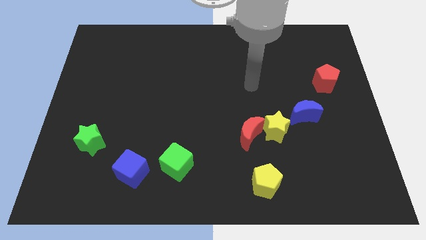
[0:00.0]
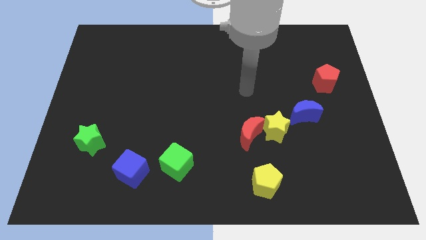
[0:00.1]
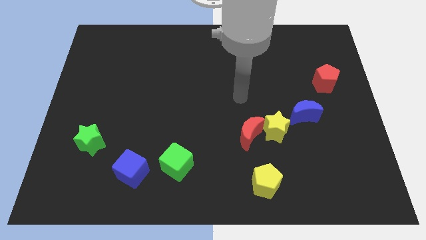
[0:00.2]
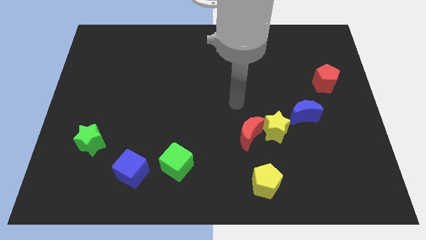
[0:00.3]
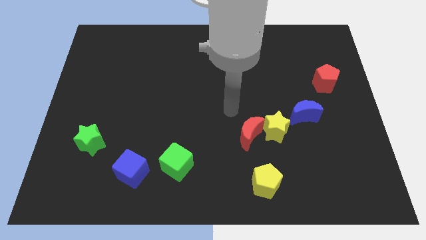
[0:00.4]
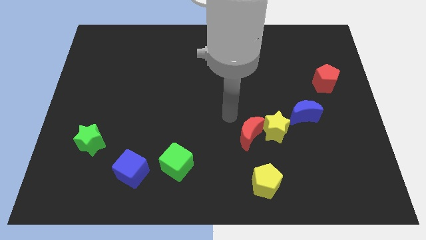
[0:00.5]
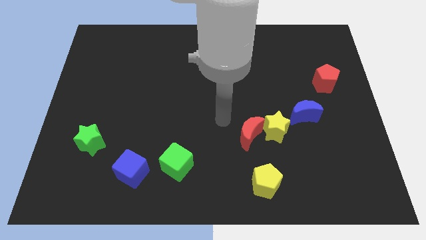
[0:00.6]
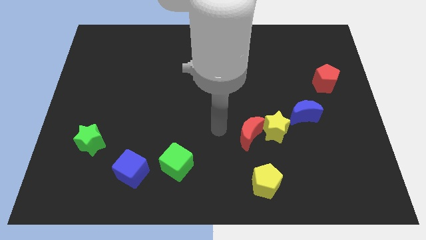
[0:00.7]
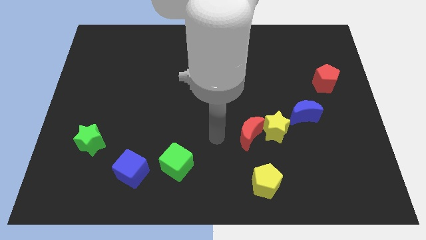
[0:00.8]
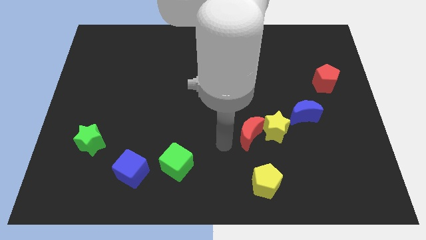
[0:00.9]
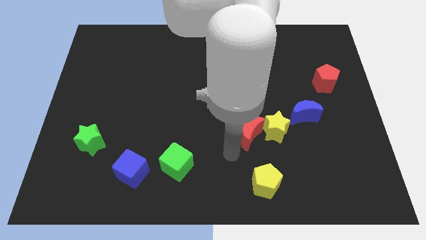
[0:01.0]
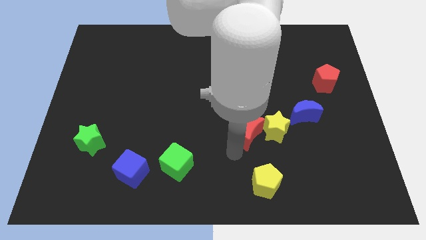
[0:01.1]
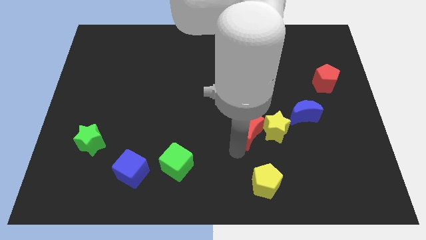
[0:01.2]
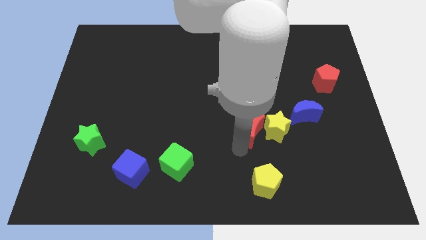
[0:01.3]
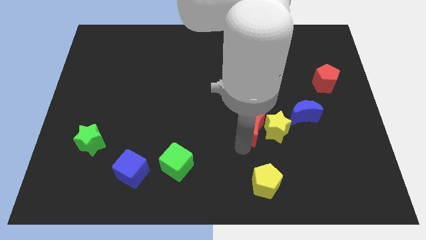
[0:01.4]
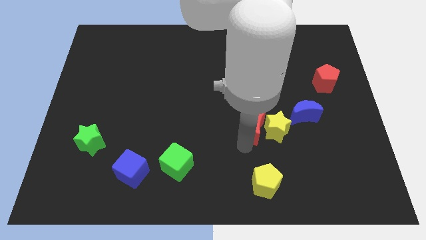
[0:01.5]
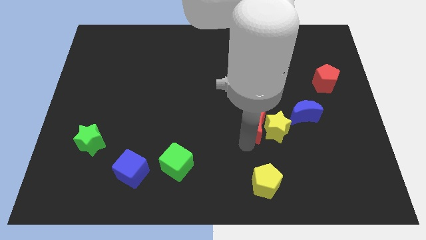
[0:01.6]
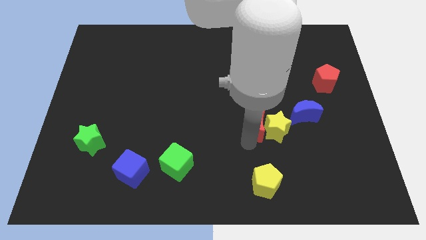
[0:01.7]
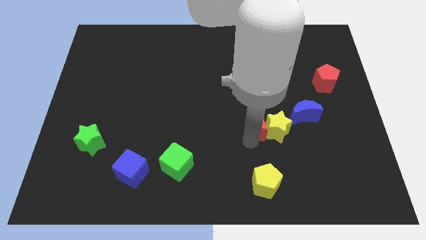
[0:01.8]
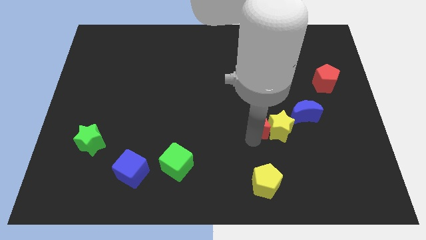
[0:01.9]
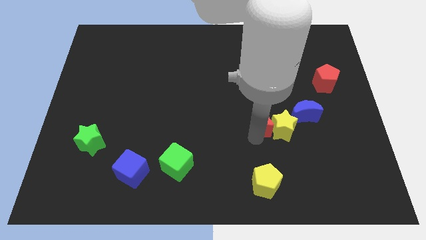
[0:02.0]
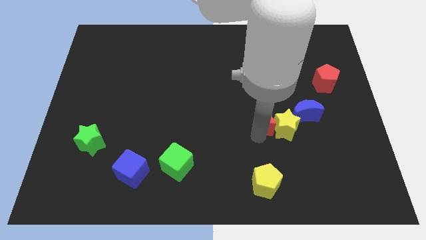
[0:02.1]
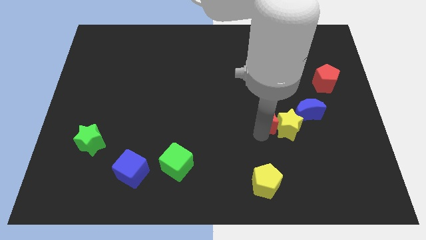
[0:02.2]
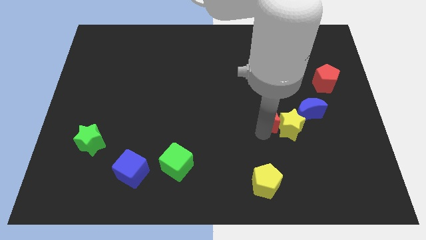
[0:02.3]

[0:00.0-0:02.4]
slightly slide the red moon upwards and right

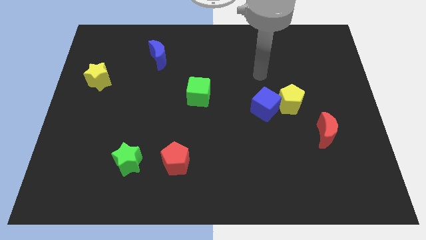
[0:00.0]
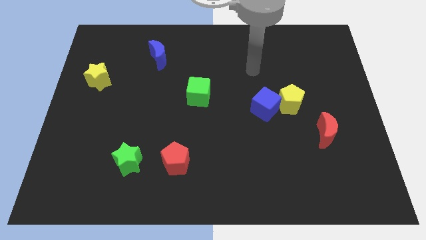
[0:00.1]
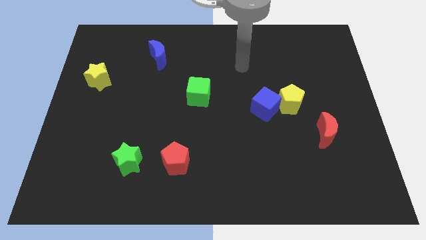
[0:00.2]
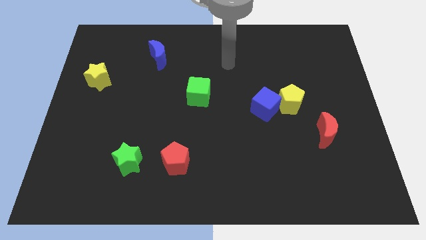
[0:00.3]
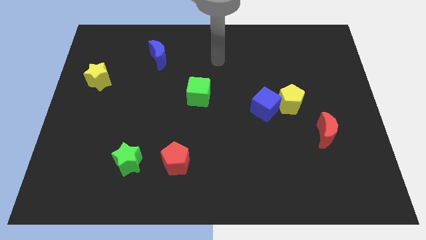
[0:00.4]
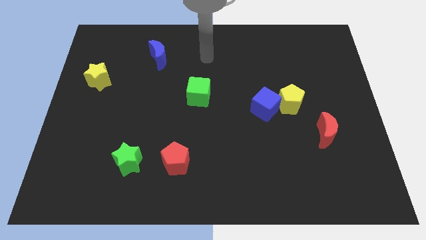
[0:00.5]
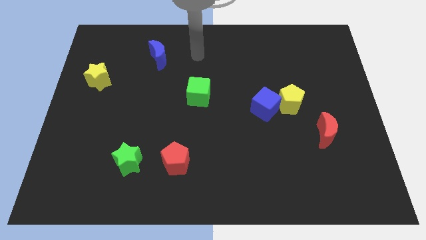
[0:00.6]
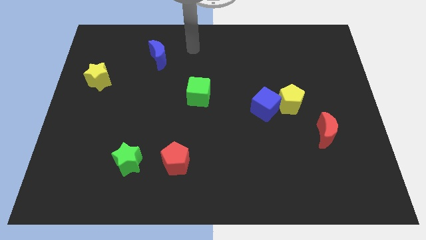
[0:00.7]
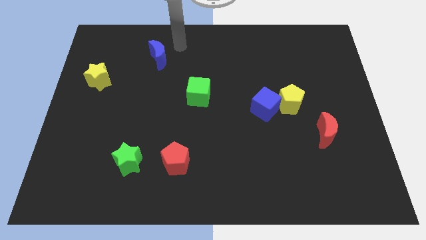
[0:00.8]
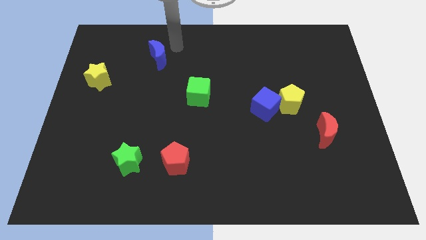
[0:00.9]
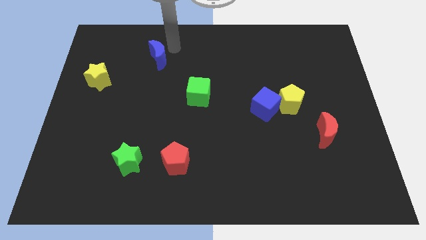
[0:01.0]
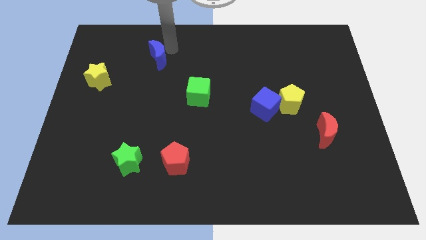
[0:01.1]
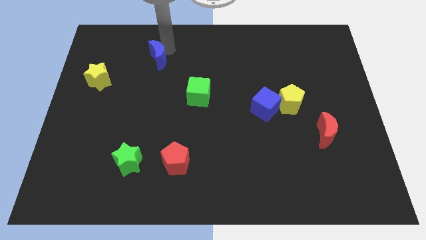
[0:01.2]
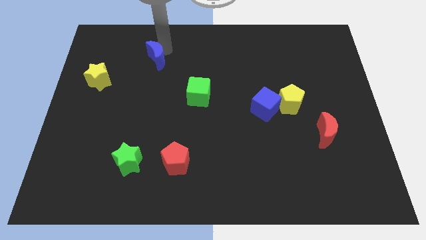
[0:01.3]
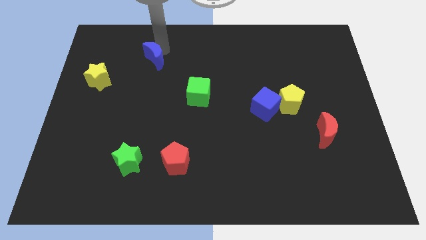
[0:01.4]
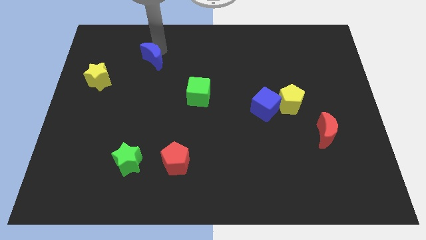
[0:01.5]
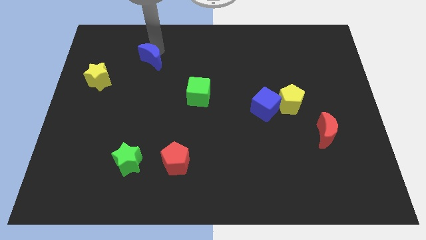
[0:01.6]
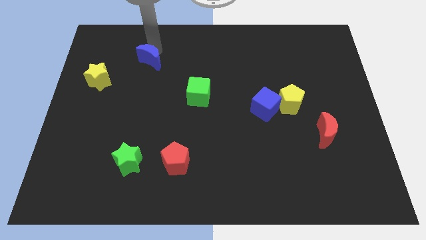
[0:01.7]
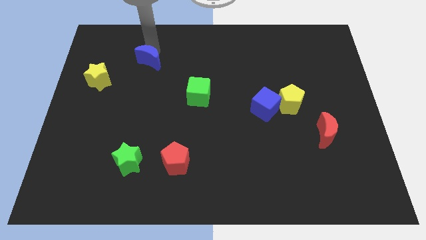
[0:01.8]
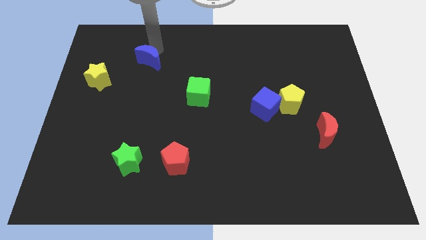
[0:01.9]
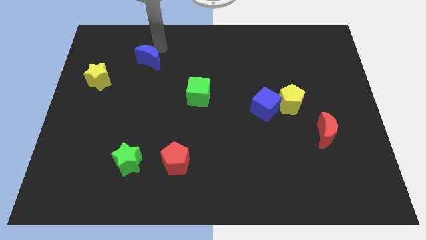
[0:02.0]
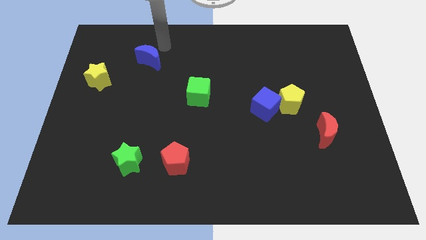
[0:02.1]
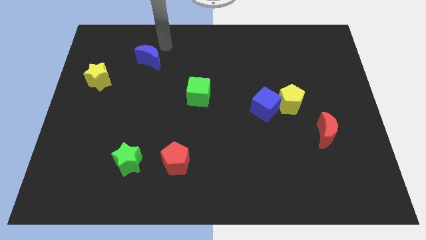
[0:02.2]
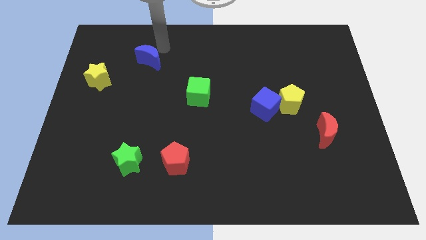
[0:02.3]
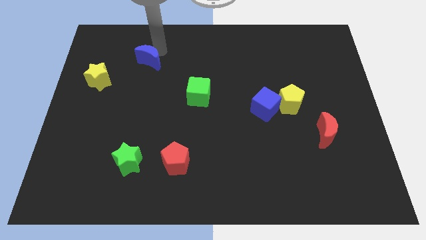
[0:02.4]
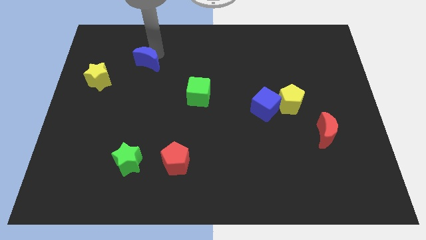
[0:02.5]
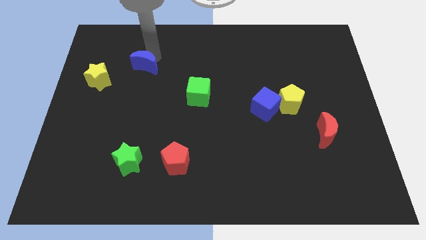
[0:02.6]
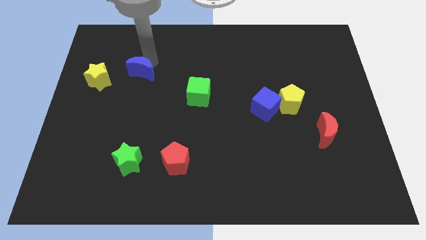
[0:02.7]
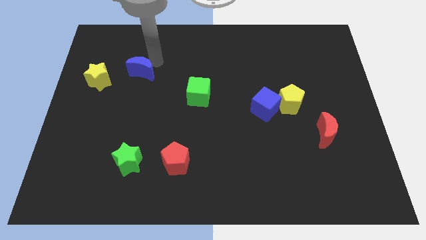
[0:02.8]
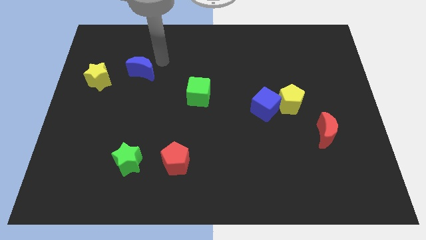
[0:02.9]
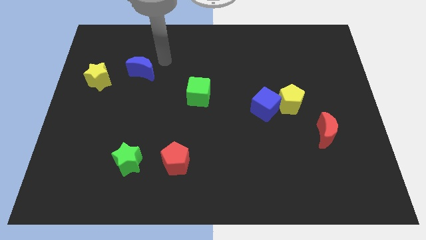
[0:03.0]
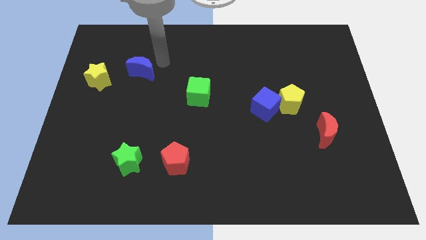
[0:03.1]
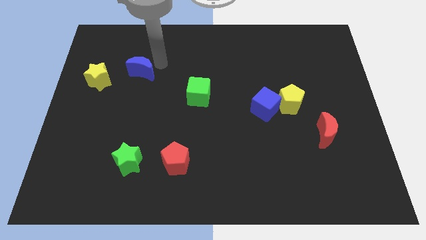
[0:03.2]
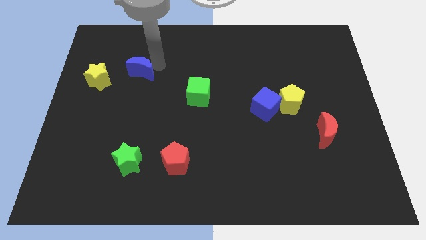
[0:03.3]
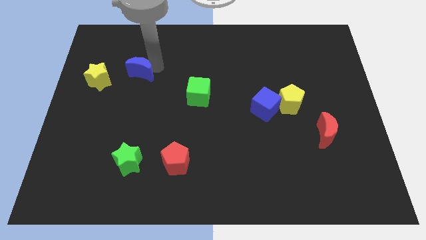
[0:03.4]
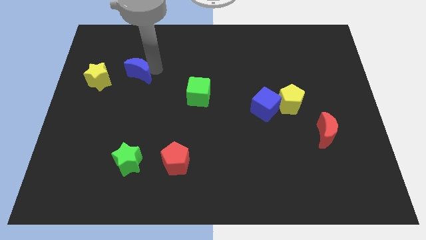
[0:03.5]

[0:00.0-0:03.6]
slide the blue moon slightly diagonally down and left

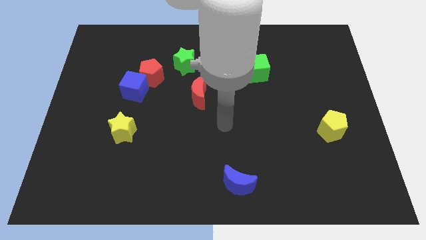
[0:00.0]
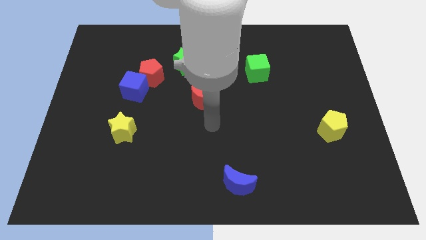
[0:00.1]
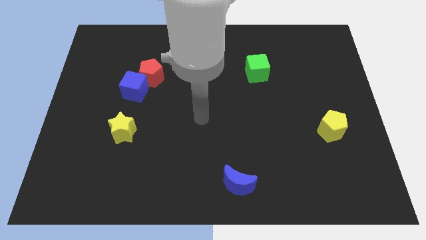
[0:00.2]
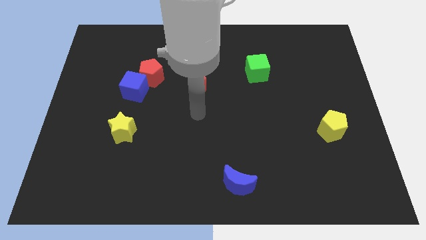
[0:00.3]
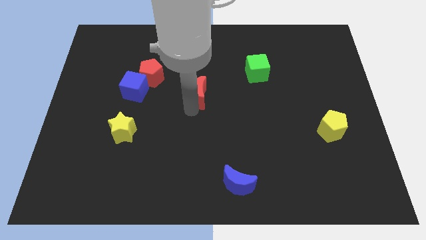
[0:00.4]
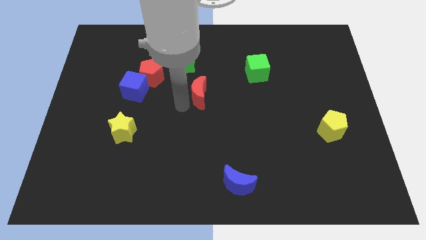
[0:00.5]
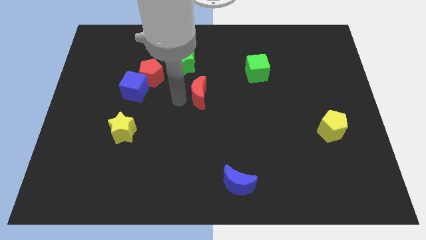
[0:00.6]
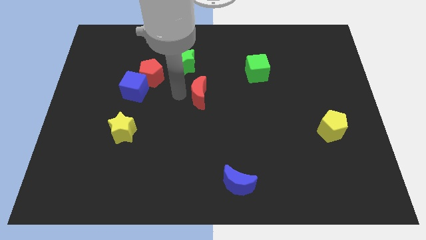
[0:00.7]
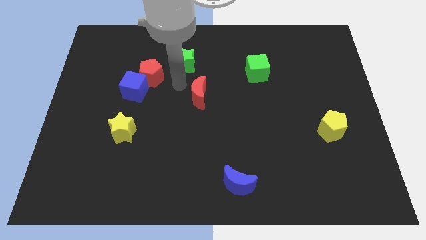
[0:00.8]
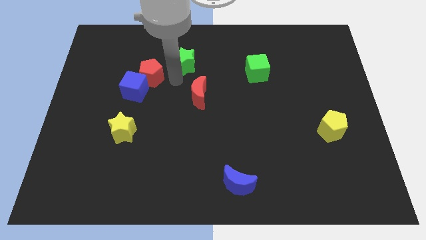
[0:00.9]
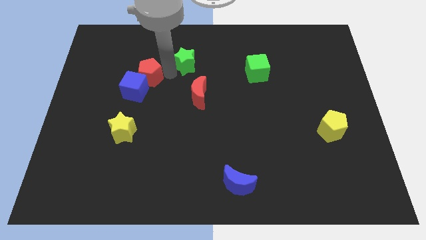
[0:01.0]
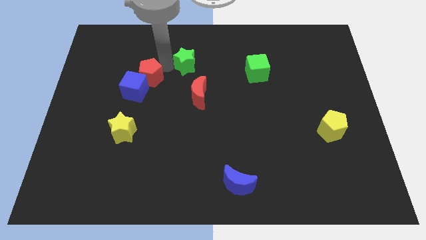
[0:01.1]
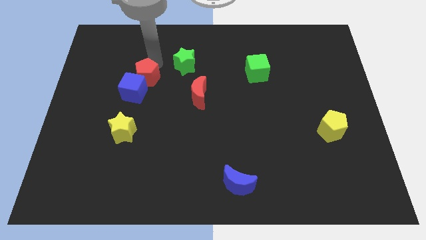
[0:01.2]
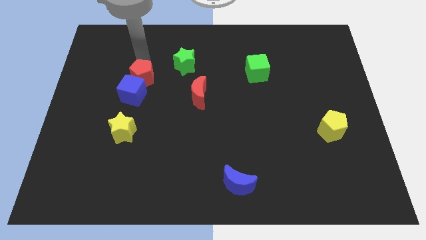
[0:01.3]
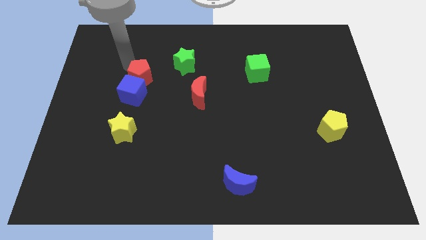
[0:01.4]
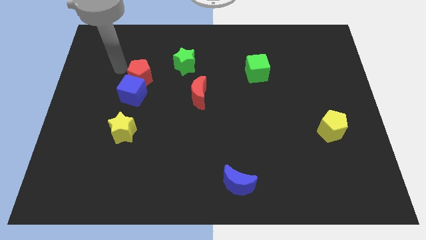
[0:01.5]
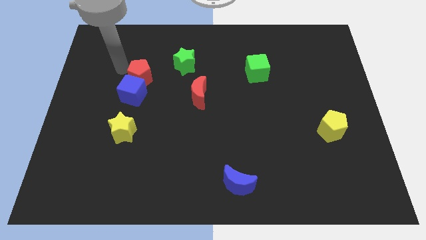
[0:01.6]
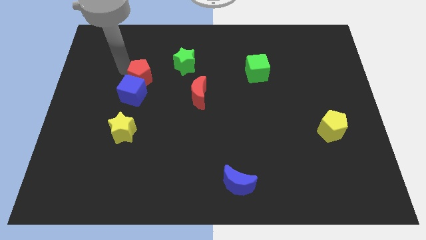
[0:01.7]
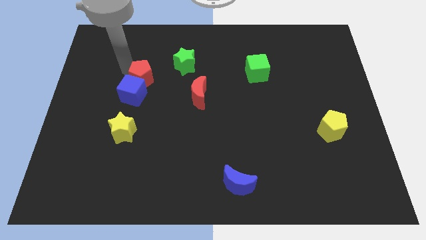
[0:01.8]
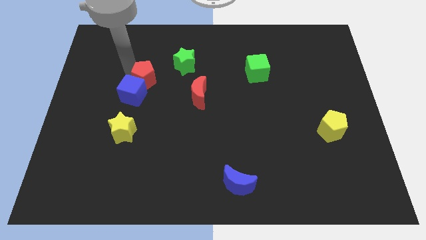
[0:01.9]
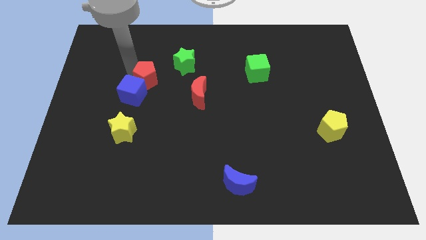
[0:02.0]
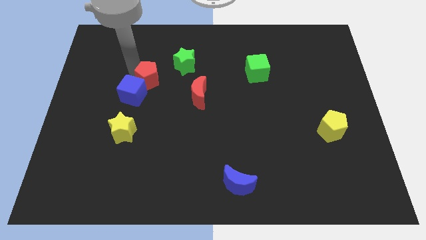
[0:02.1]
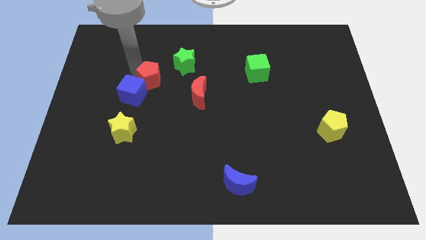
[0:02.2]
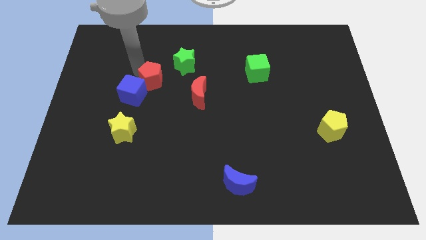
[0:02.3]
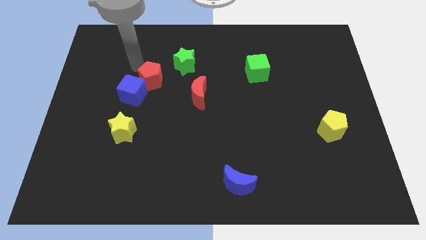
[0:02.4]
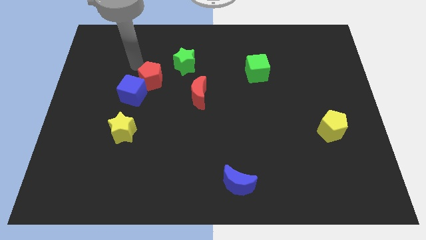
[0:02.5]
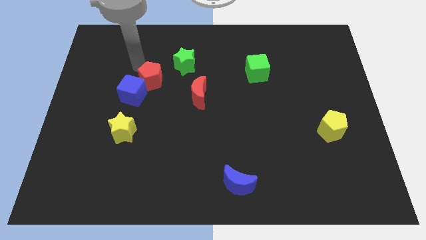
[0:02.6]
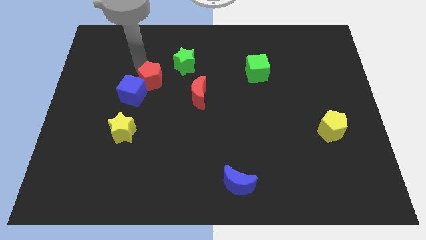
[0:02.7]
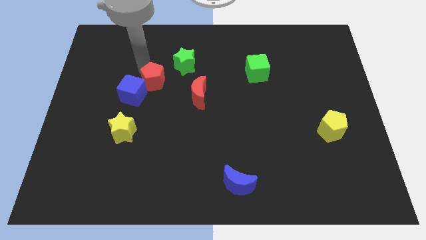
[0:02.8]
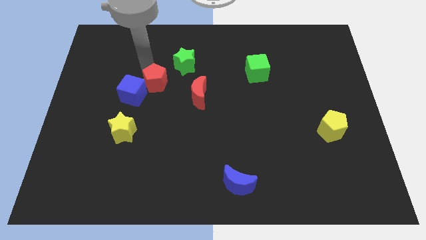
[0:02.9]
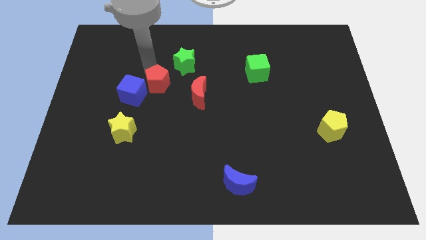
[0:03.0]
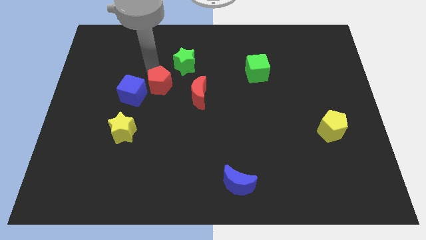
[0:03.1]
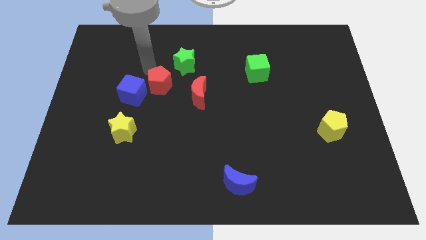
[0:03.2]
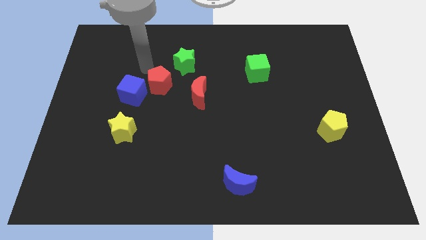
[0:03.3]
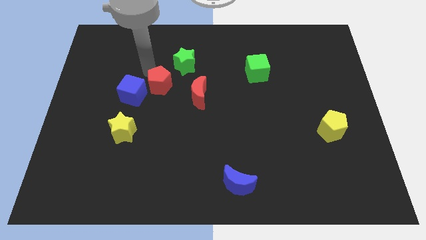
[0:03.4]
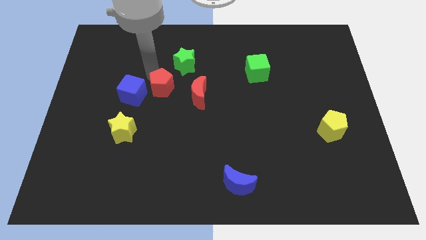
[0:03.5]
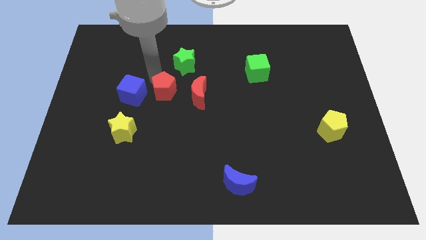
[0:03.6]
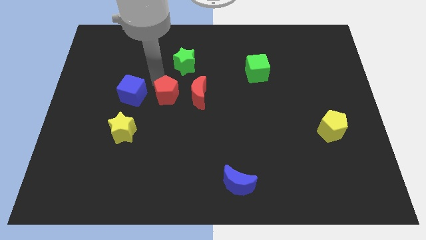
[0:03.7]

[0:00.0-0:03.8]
move the red pentagon a little downwards and to the right
